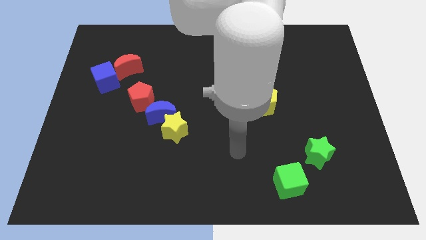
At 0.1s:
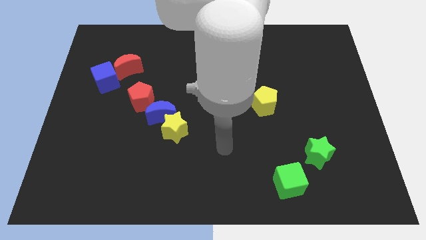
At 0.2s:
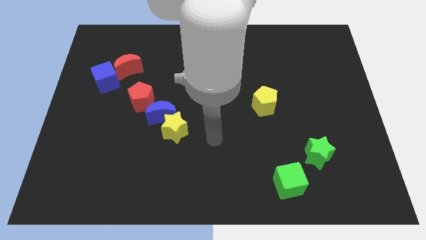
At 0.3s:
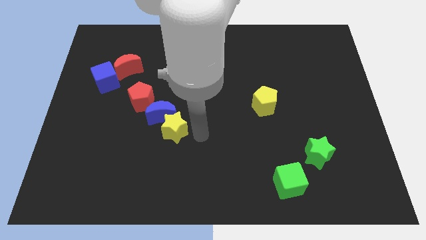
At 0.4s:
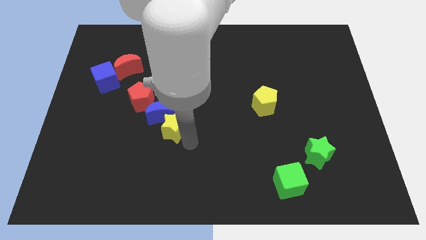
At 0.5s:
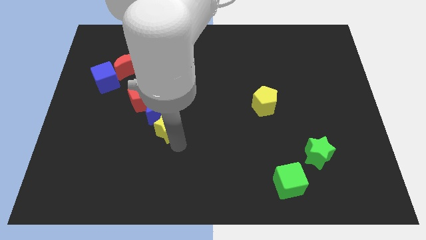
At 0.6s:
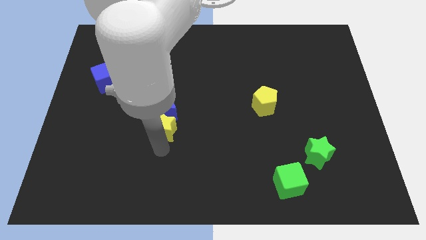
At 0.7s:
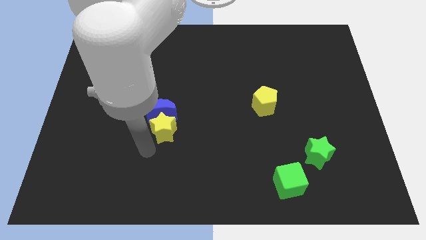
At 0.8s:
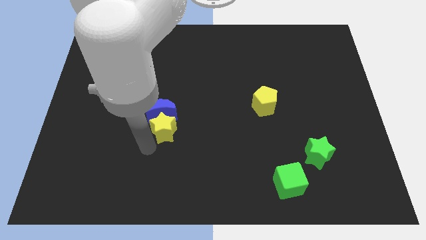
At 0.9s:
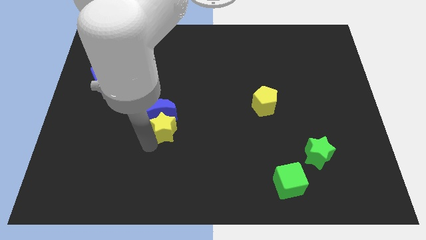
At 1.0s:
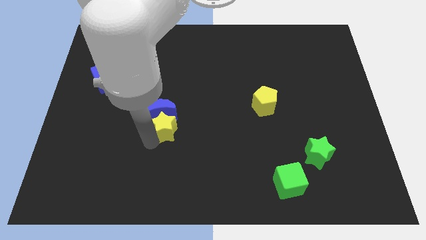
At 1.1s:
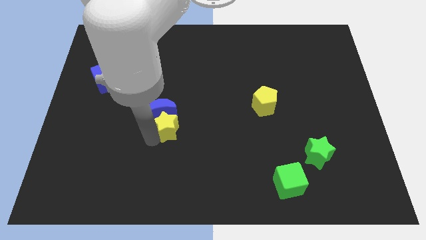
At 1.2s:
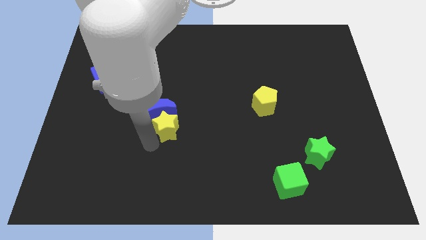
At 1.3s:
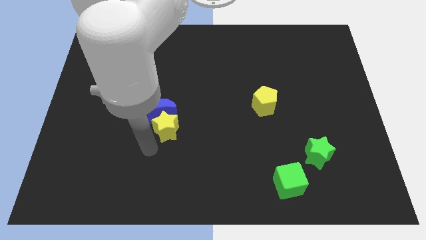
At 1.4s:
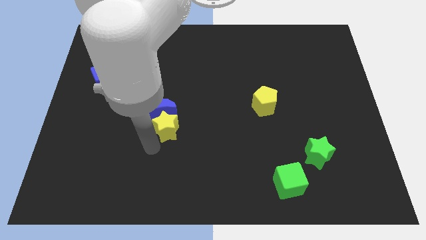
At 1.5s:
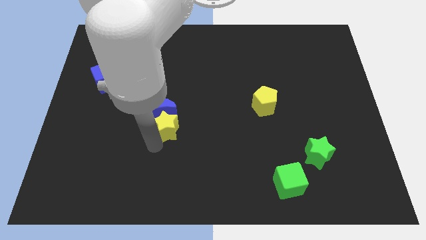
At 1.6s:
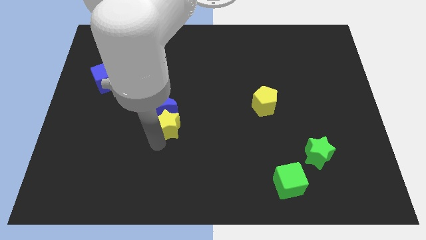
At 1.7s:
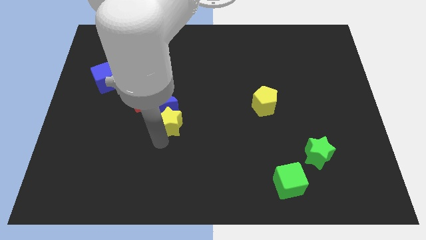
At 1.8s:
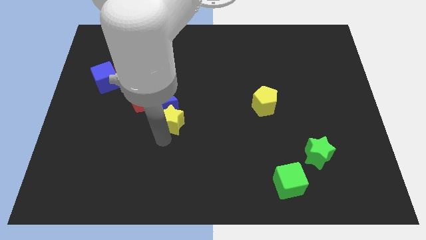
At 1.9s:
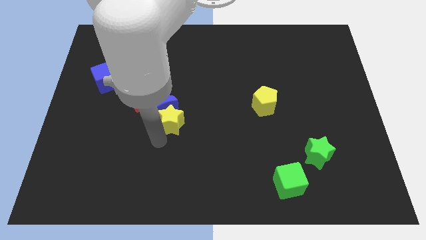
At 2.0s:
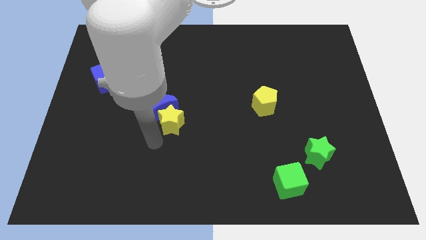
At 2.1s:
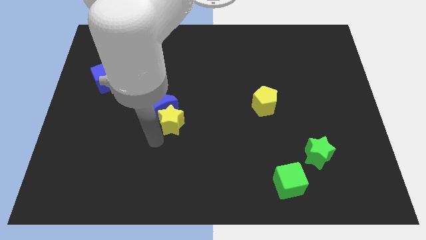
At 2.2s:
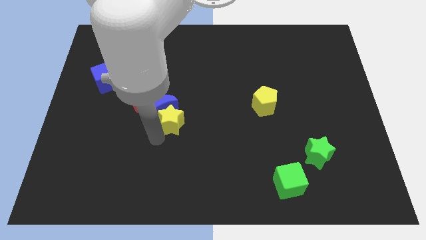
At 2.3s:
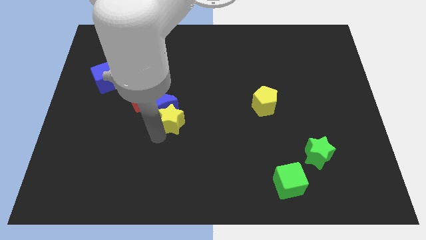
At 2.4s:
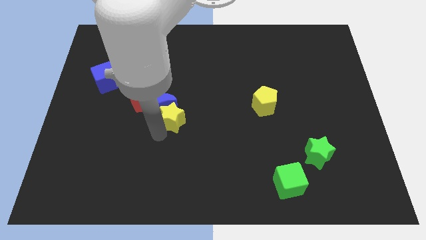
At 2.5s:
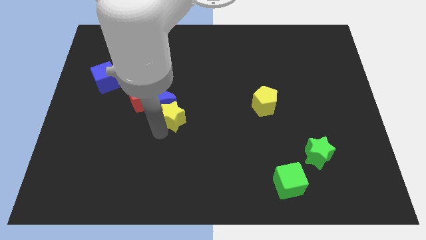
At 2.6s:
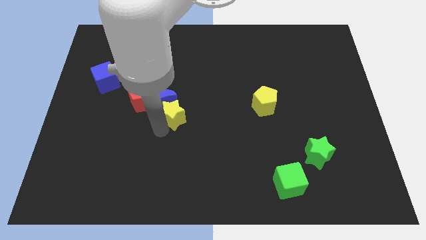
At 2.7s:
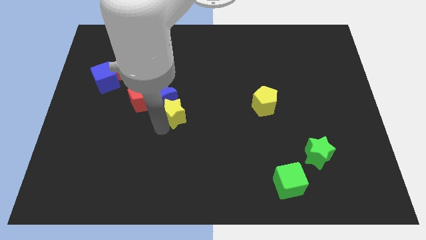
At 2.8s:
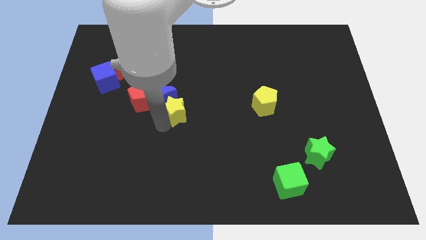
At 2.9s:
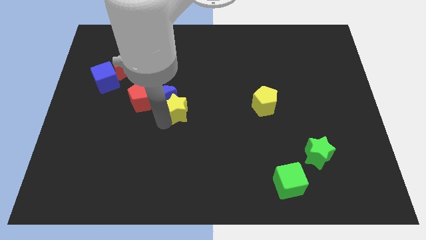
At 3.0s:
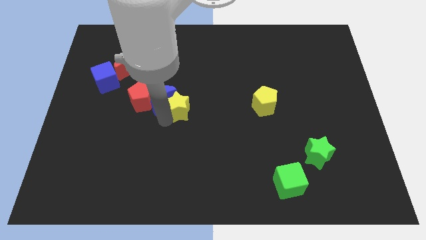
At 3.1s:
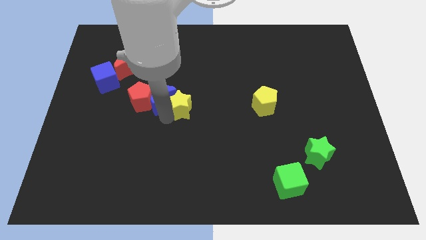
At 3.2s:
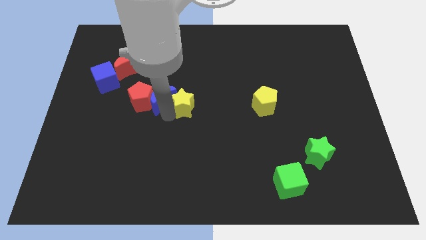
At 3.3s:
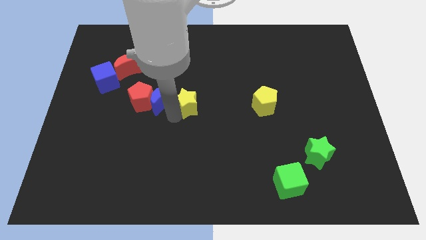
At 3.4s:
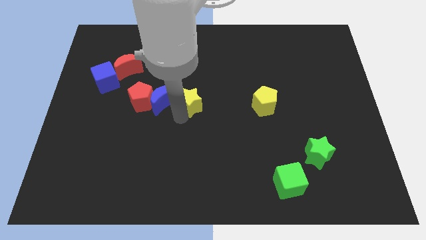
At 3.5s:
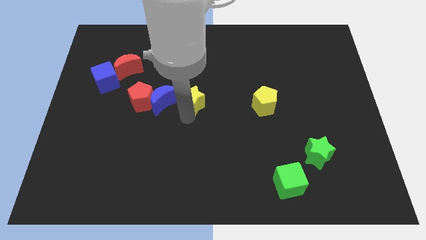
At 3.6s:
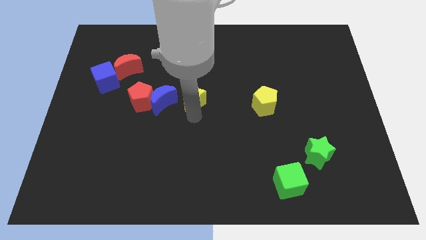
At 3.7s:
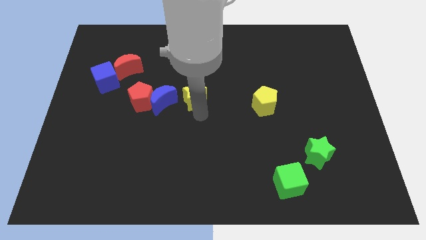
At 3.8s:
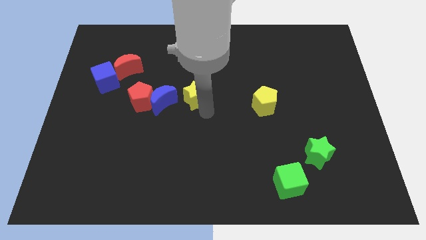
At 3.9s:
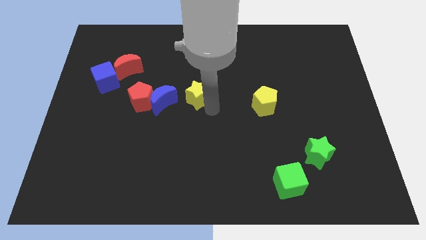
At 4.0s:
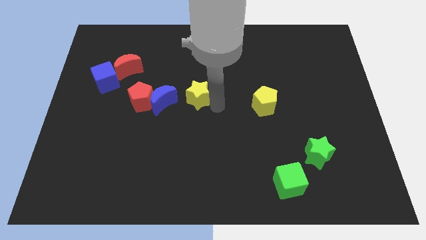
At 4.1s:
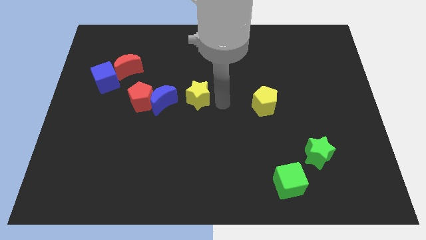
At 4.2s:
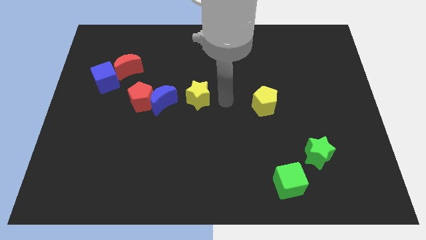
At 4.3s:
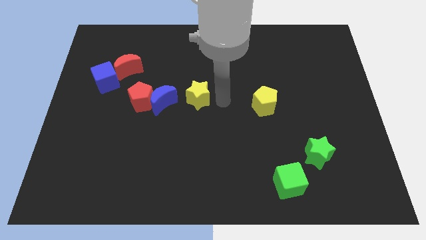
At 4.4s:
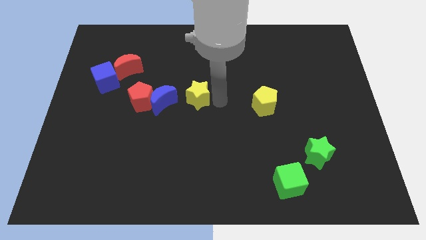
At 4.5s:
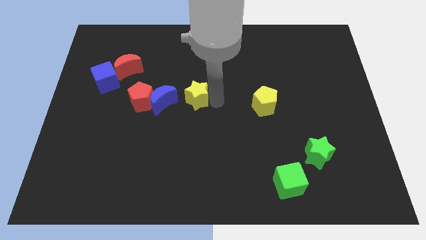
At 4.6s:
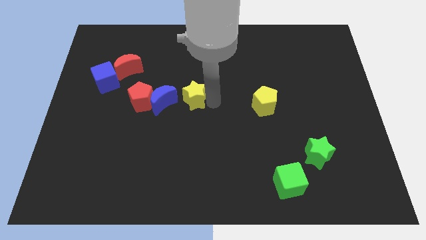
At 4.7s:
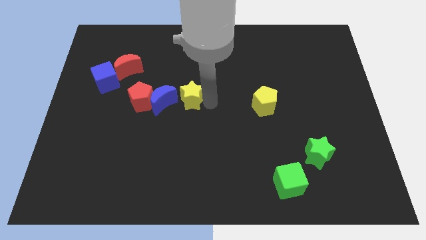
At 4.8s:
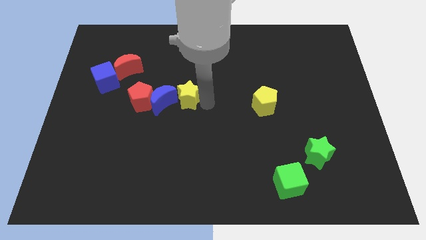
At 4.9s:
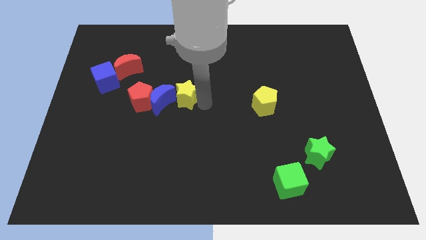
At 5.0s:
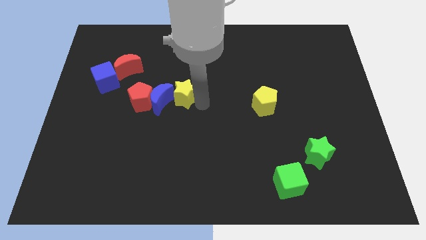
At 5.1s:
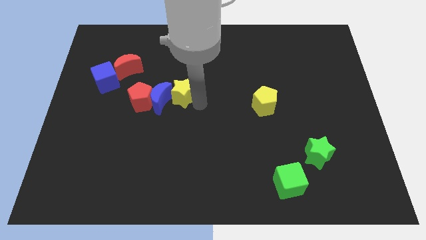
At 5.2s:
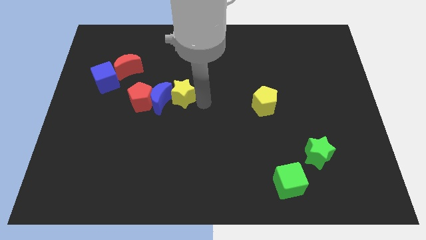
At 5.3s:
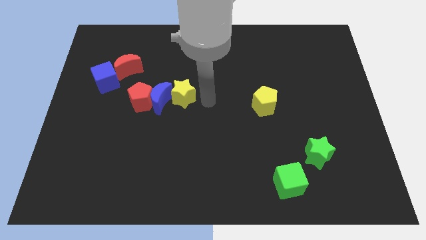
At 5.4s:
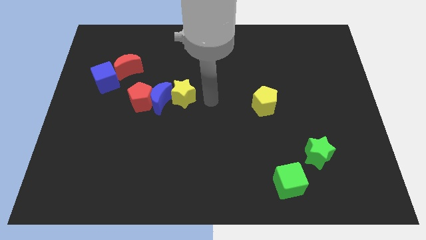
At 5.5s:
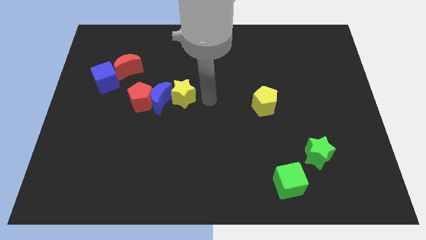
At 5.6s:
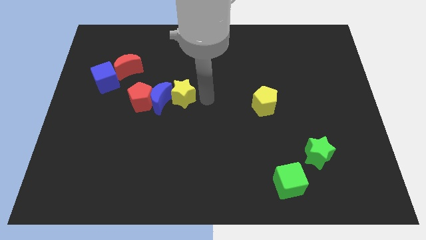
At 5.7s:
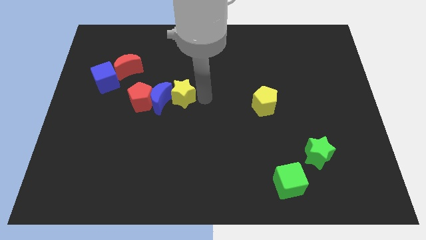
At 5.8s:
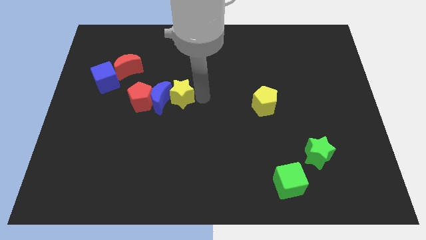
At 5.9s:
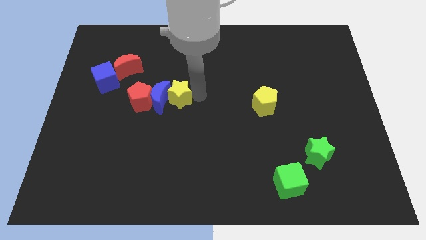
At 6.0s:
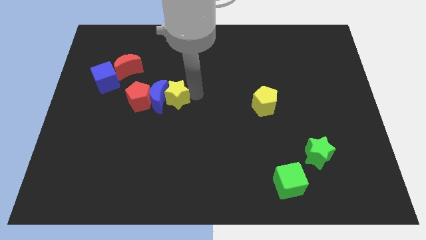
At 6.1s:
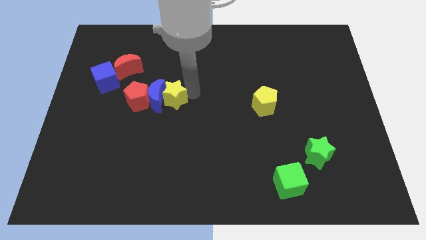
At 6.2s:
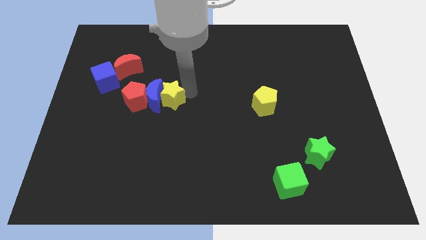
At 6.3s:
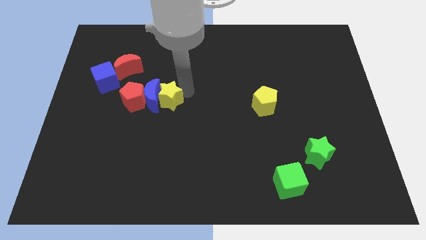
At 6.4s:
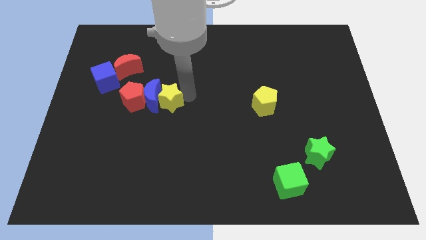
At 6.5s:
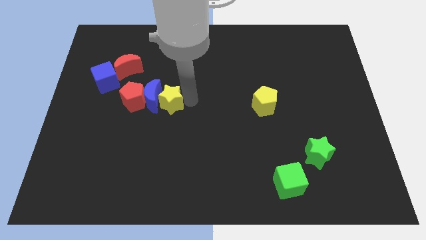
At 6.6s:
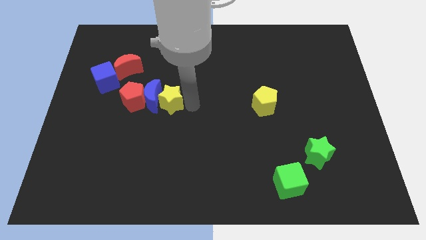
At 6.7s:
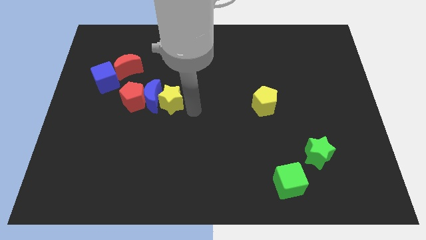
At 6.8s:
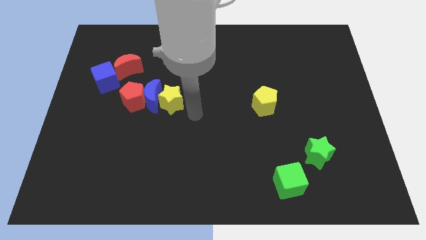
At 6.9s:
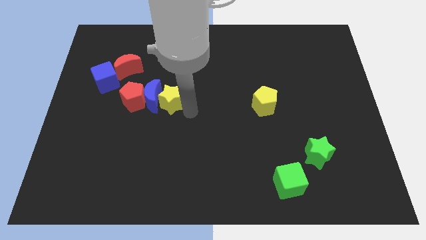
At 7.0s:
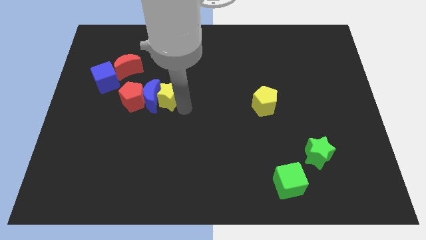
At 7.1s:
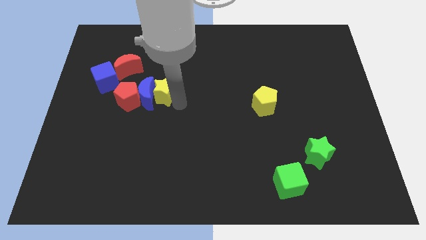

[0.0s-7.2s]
slide the yellow star a bit diagonally up and left

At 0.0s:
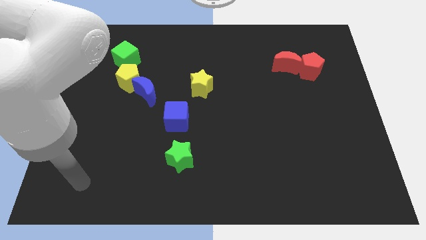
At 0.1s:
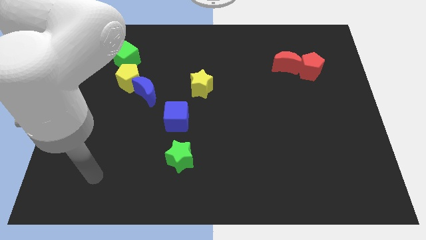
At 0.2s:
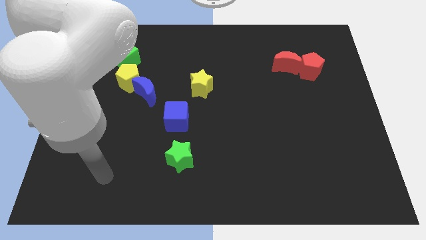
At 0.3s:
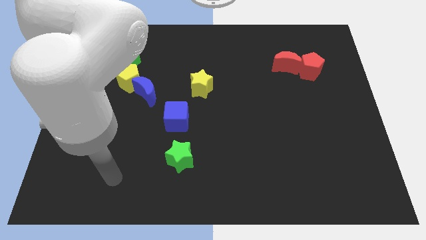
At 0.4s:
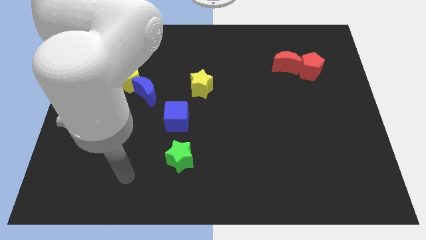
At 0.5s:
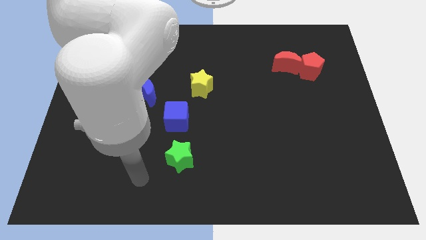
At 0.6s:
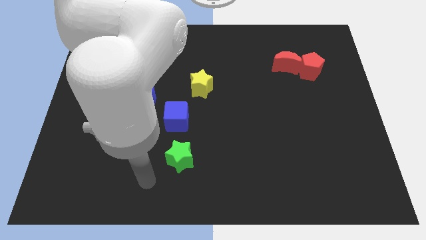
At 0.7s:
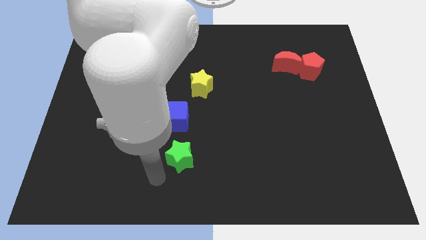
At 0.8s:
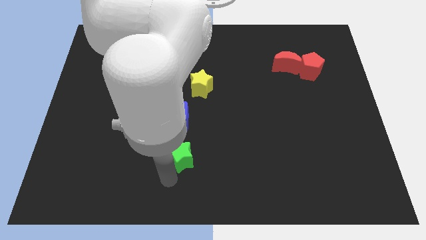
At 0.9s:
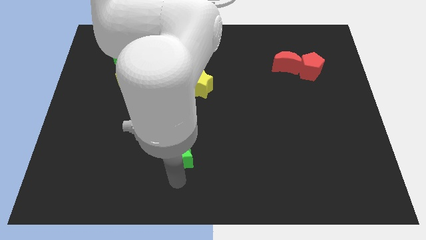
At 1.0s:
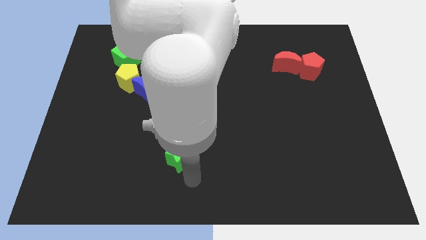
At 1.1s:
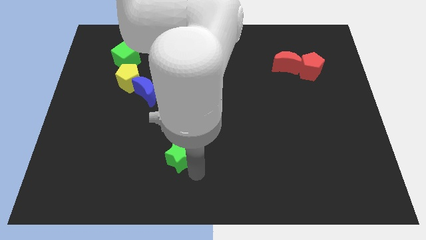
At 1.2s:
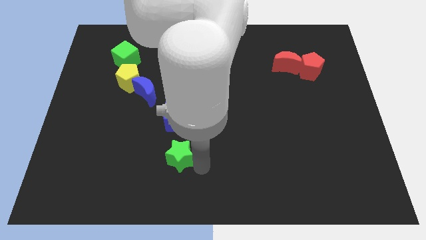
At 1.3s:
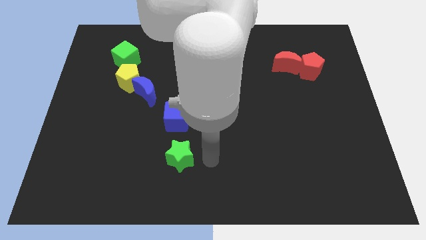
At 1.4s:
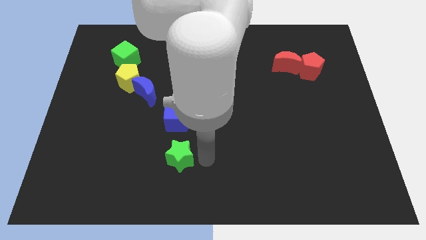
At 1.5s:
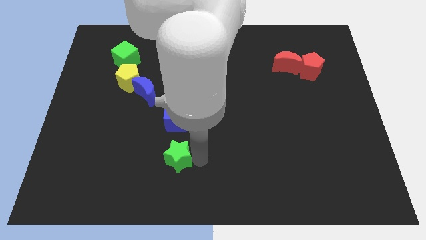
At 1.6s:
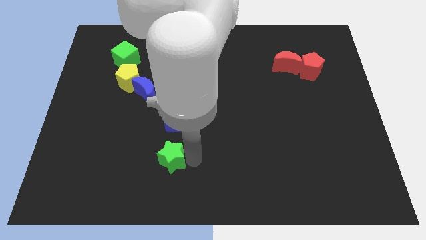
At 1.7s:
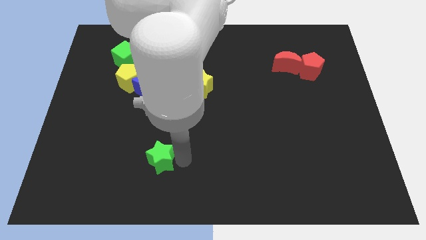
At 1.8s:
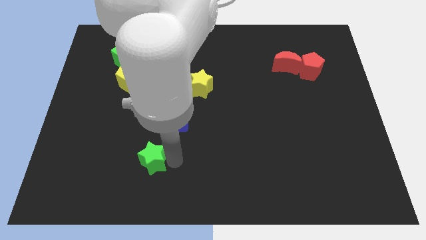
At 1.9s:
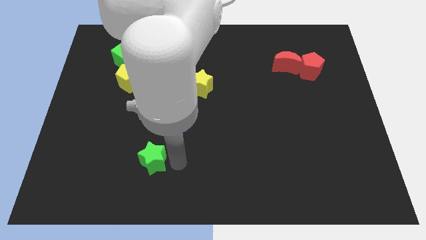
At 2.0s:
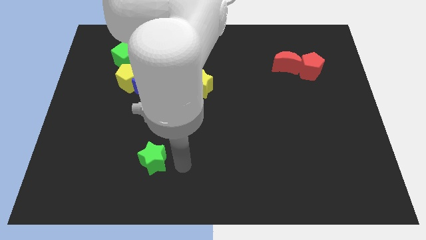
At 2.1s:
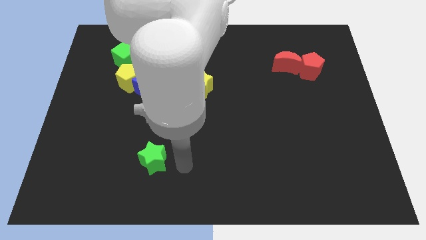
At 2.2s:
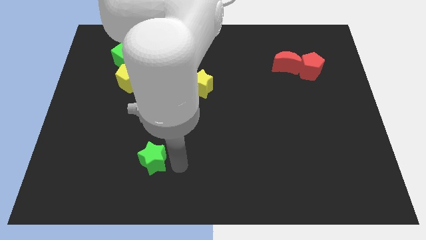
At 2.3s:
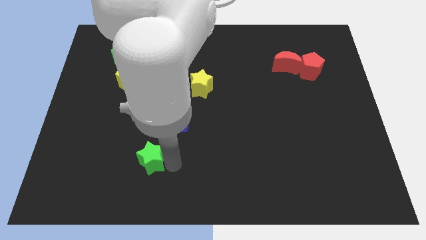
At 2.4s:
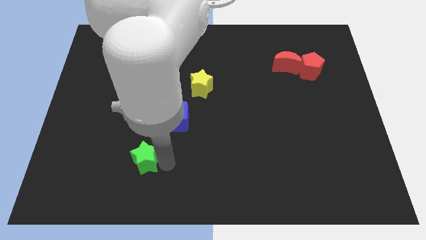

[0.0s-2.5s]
slide the green star left a little
